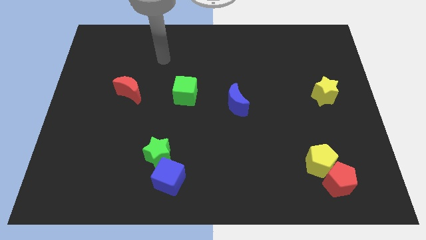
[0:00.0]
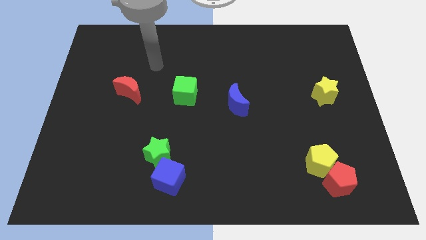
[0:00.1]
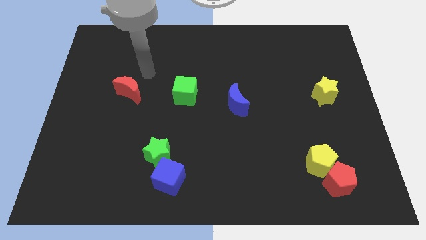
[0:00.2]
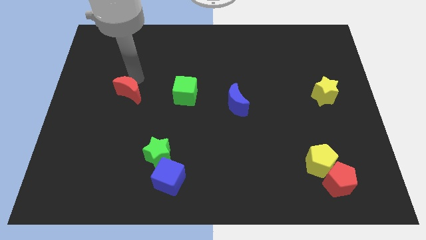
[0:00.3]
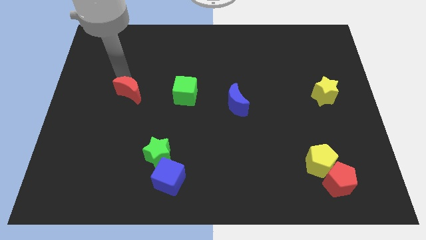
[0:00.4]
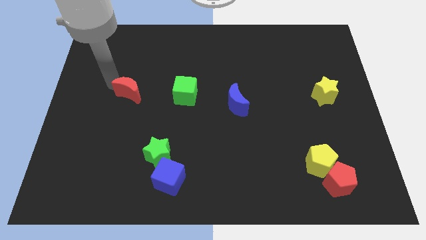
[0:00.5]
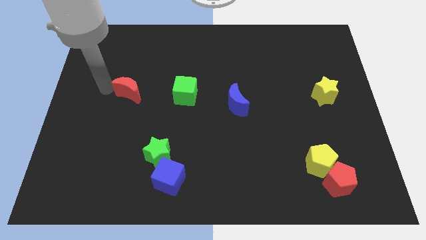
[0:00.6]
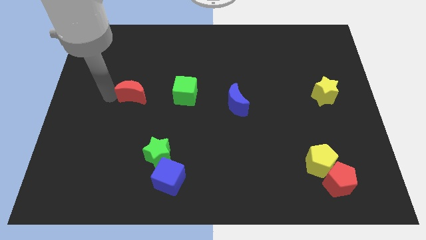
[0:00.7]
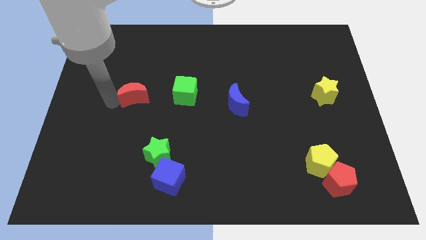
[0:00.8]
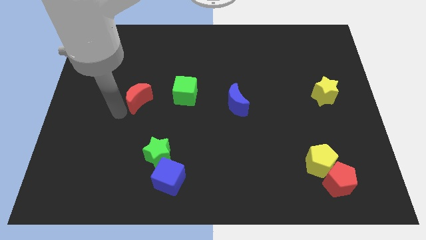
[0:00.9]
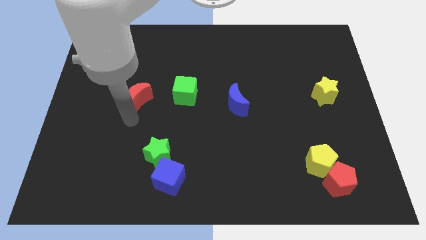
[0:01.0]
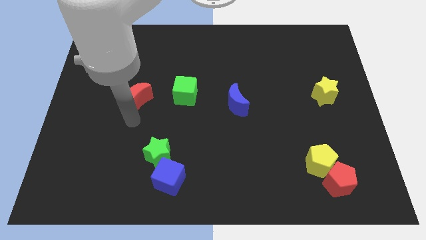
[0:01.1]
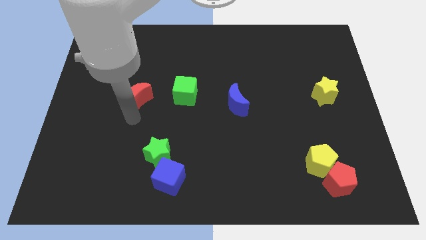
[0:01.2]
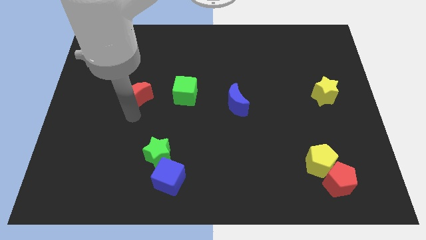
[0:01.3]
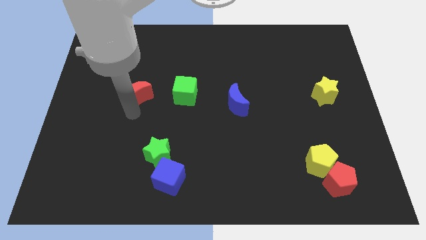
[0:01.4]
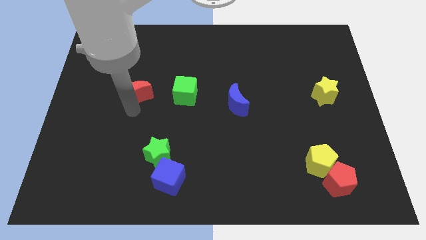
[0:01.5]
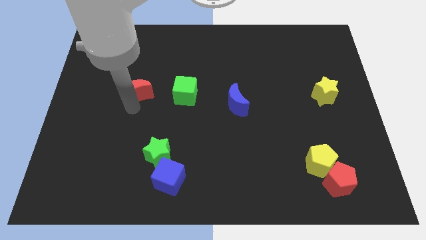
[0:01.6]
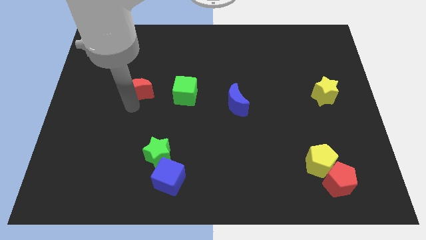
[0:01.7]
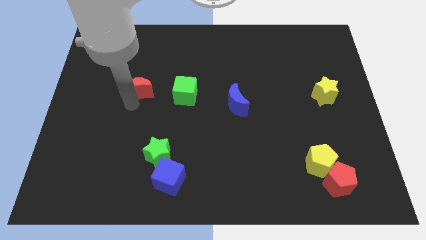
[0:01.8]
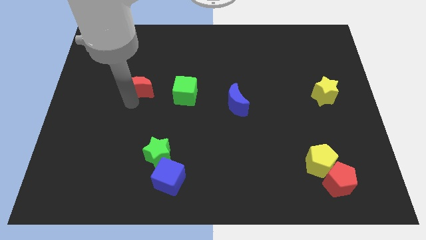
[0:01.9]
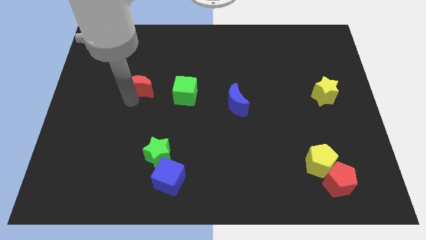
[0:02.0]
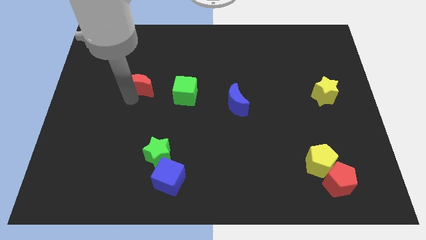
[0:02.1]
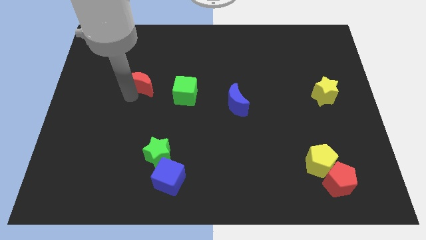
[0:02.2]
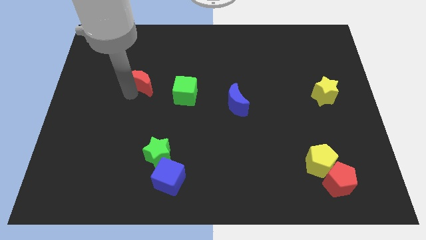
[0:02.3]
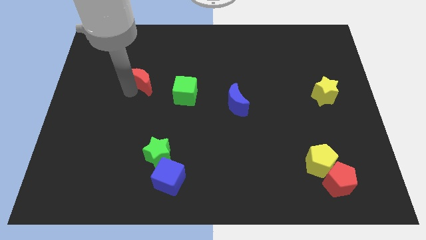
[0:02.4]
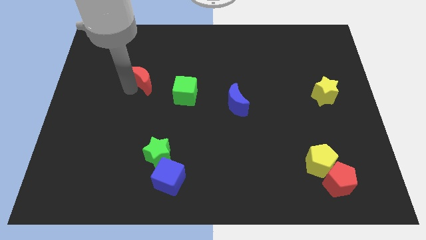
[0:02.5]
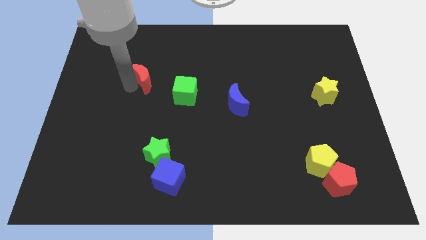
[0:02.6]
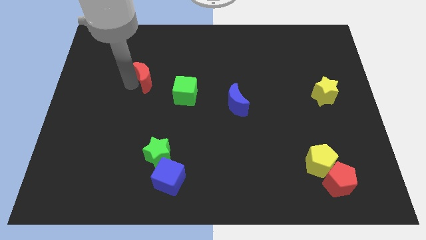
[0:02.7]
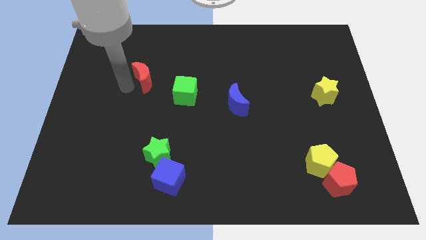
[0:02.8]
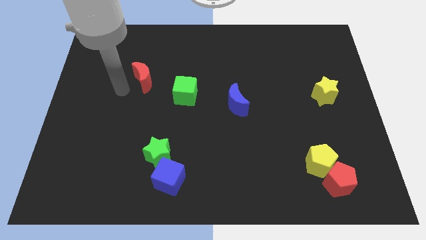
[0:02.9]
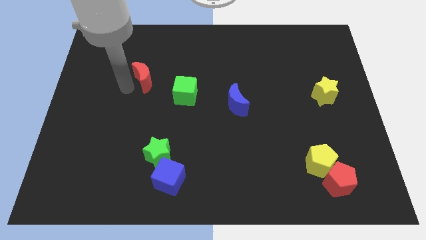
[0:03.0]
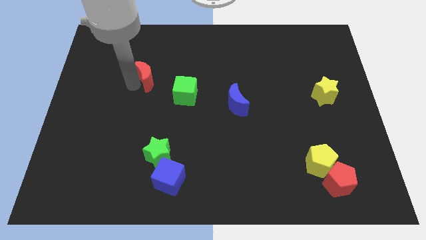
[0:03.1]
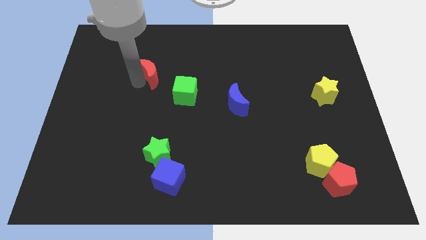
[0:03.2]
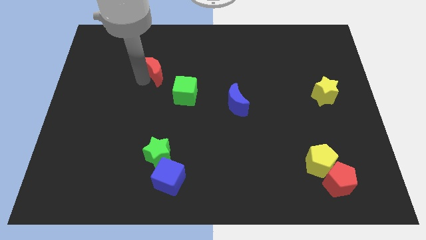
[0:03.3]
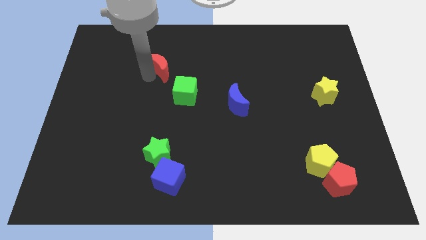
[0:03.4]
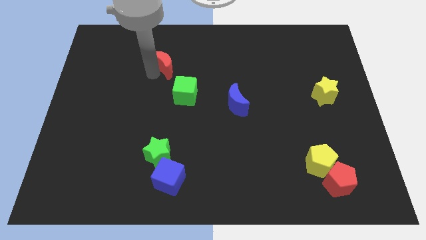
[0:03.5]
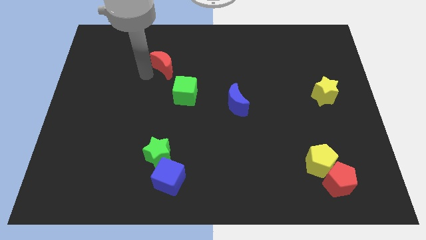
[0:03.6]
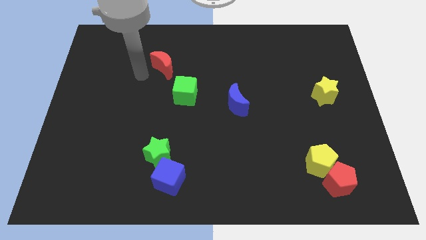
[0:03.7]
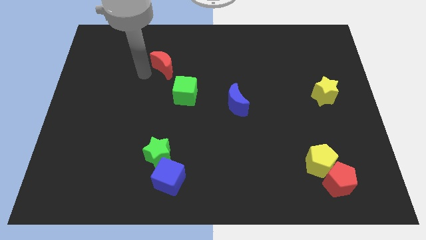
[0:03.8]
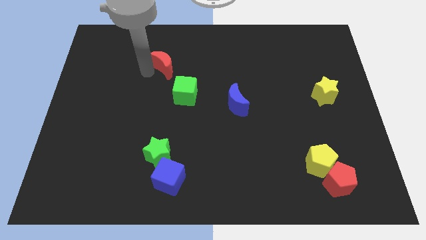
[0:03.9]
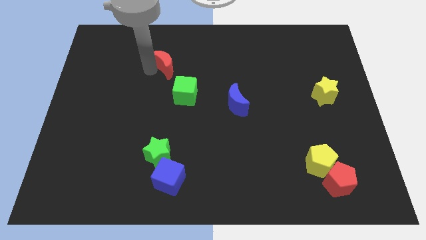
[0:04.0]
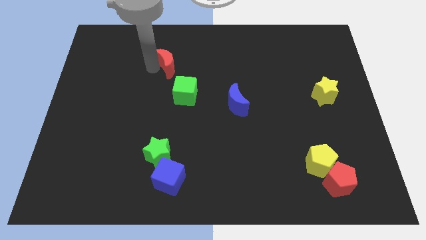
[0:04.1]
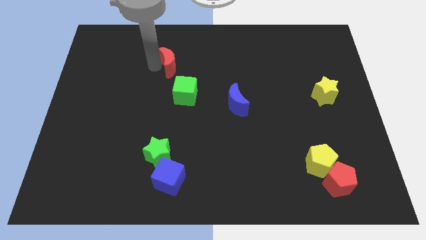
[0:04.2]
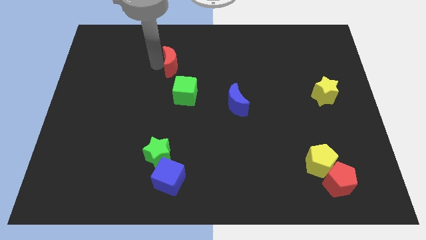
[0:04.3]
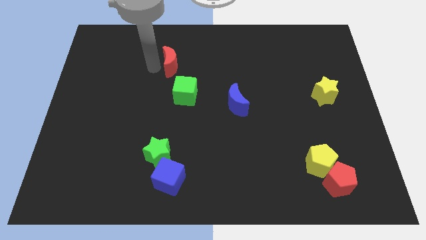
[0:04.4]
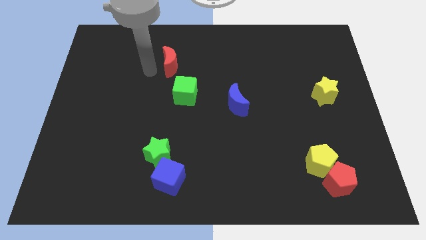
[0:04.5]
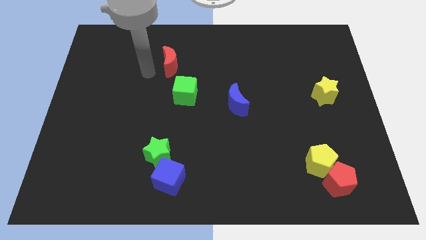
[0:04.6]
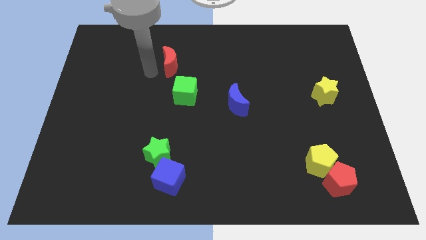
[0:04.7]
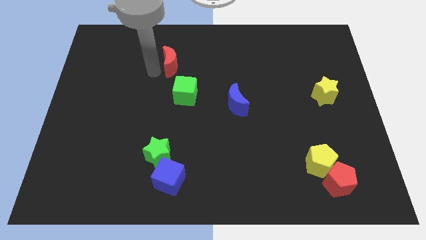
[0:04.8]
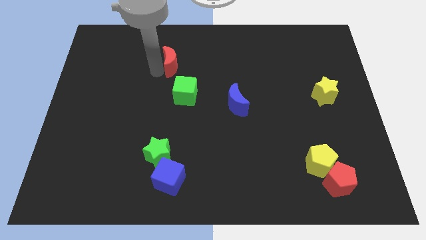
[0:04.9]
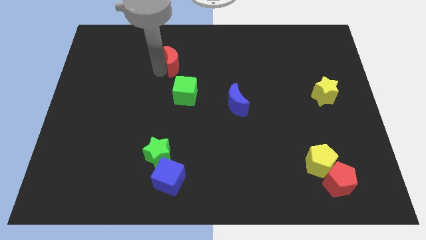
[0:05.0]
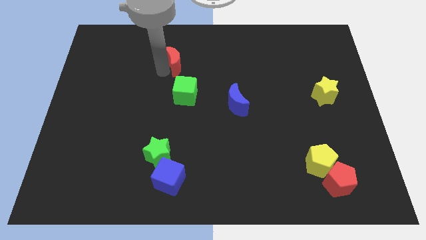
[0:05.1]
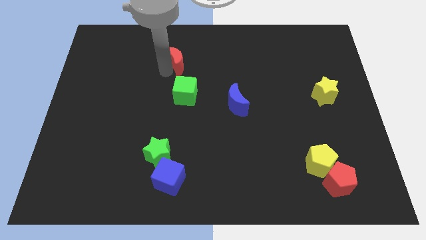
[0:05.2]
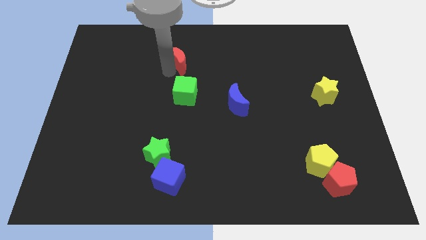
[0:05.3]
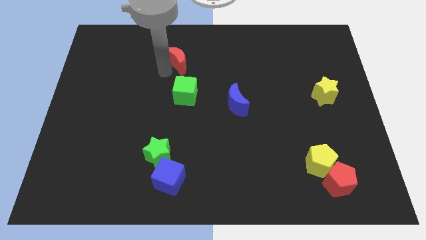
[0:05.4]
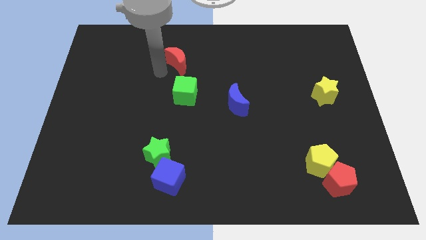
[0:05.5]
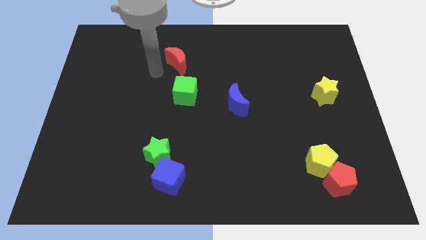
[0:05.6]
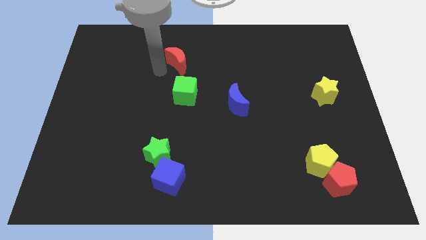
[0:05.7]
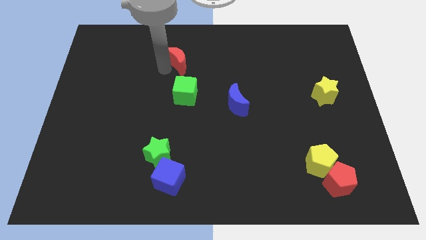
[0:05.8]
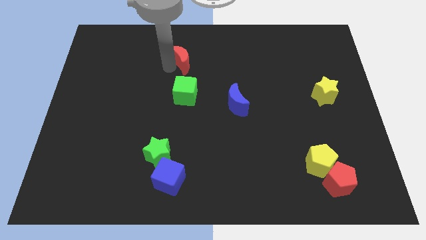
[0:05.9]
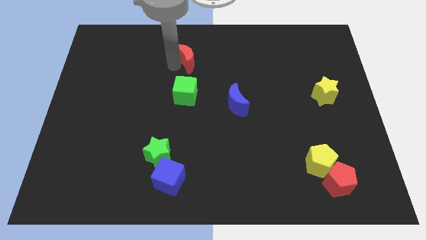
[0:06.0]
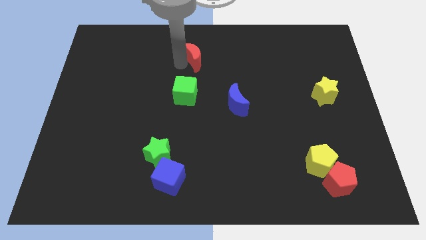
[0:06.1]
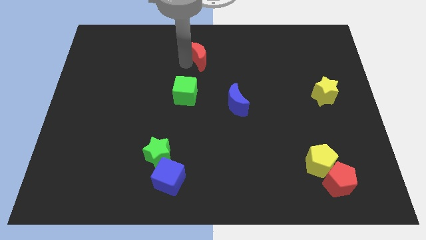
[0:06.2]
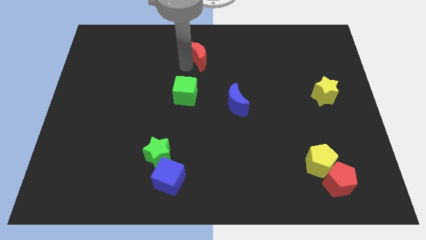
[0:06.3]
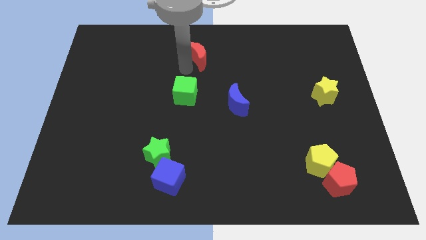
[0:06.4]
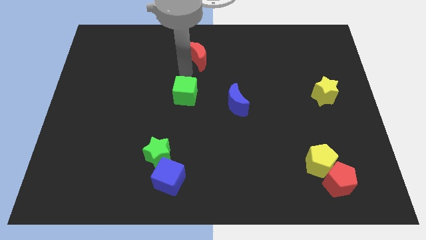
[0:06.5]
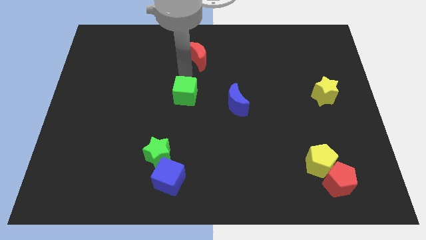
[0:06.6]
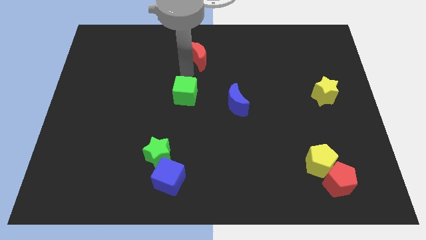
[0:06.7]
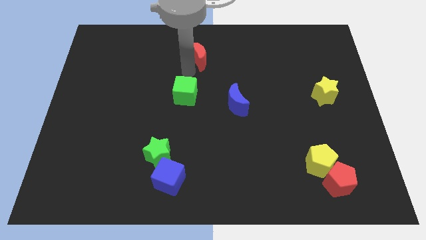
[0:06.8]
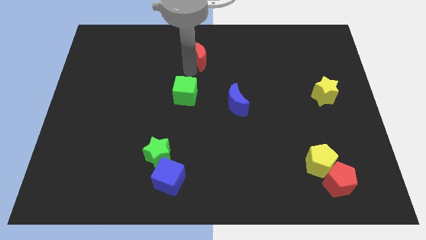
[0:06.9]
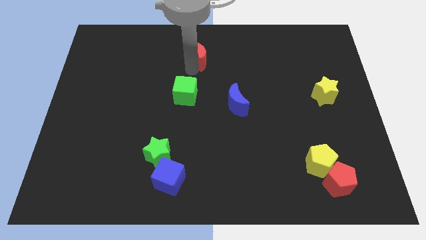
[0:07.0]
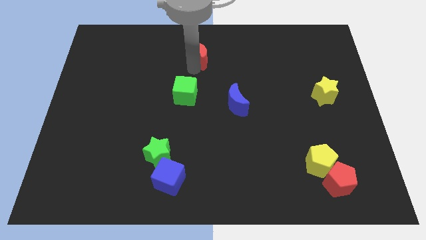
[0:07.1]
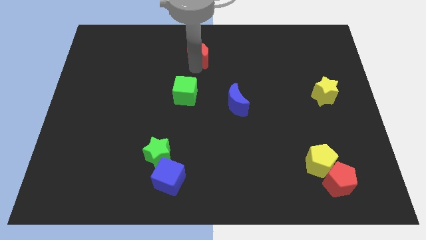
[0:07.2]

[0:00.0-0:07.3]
slide the red moon to the towards your base
